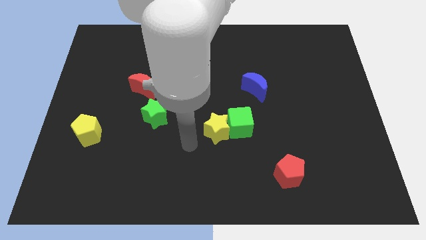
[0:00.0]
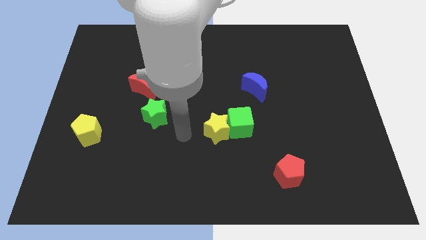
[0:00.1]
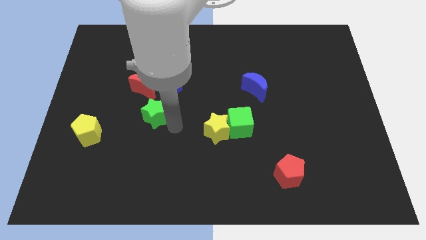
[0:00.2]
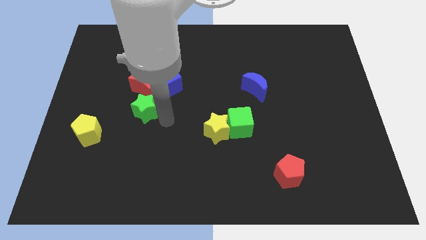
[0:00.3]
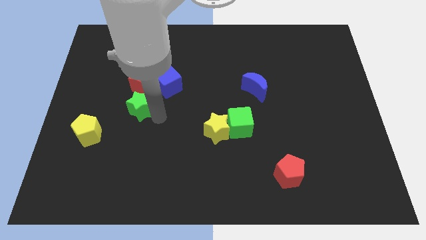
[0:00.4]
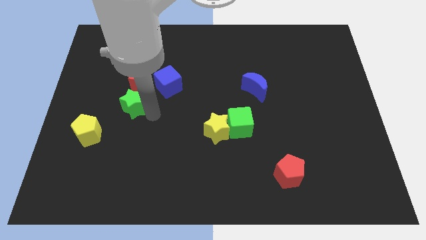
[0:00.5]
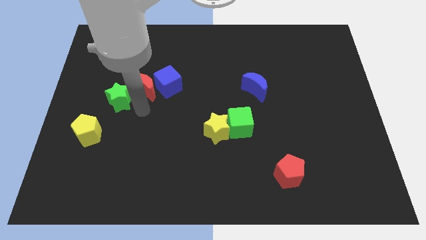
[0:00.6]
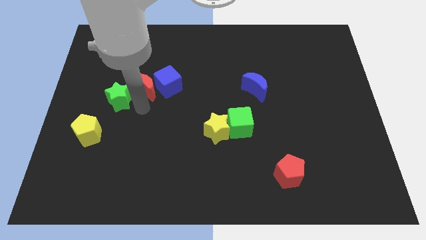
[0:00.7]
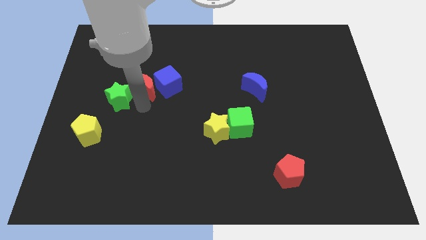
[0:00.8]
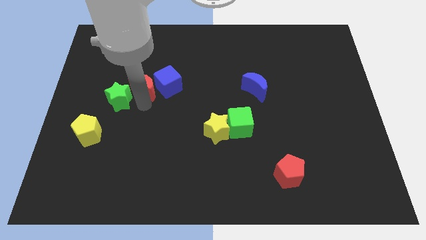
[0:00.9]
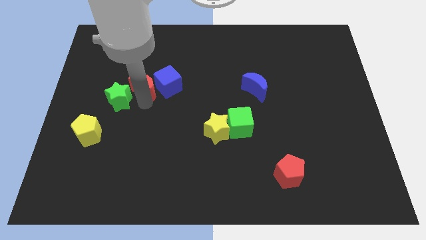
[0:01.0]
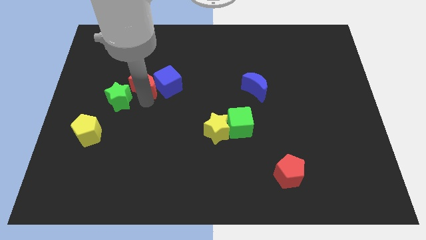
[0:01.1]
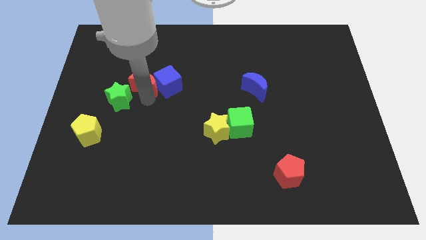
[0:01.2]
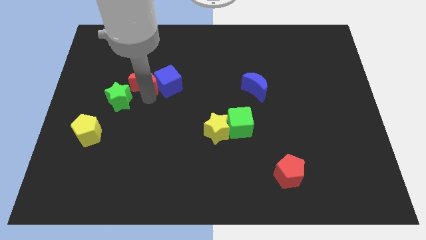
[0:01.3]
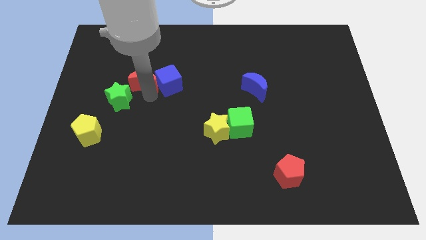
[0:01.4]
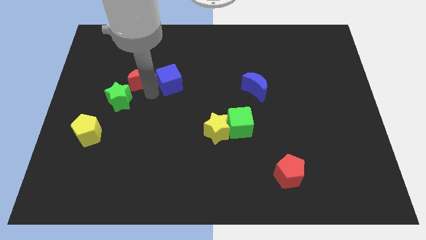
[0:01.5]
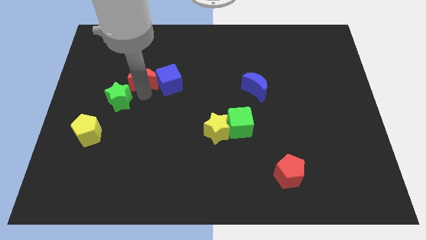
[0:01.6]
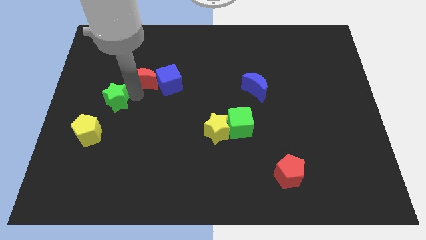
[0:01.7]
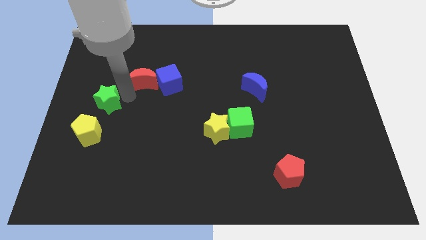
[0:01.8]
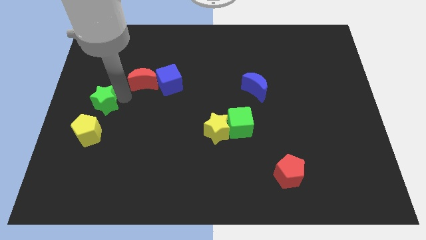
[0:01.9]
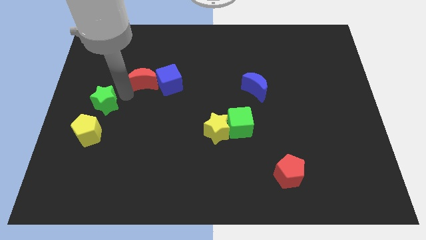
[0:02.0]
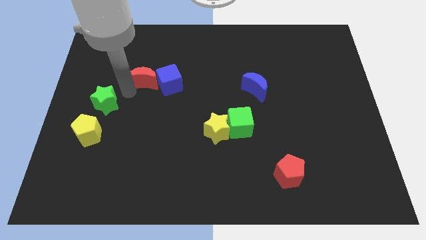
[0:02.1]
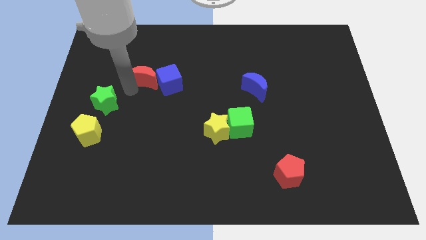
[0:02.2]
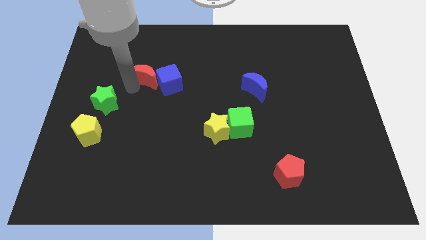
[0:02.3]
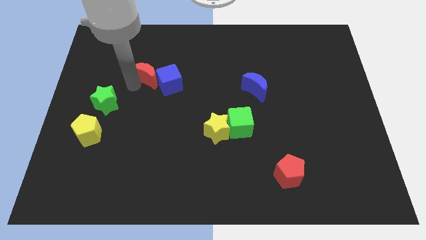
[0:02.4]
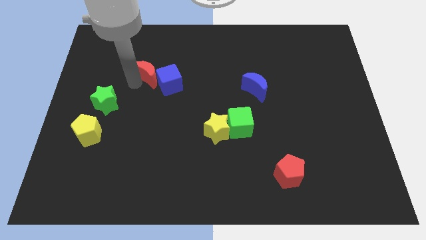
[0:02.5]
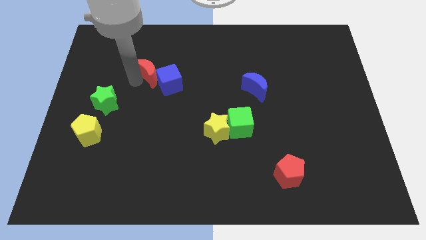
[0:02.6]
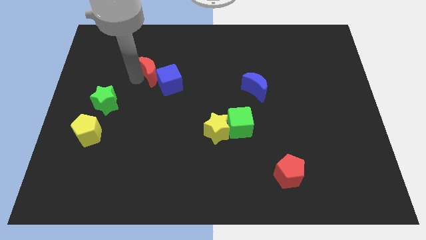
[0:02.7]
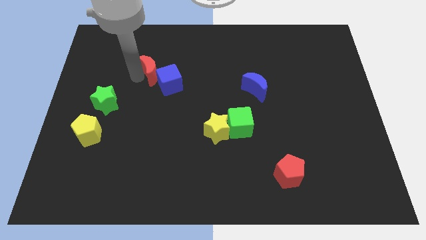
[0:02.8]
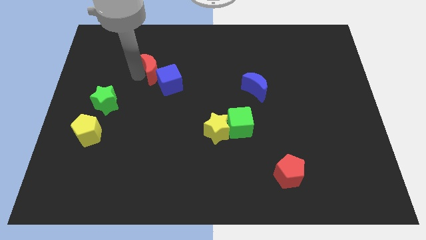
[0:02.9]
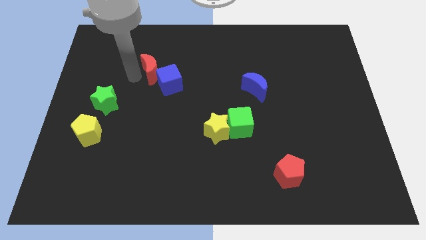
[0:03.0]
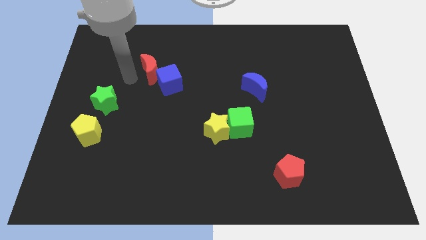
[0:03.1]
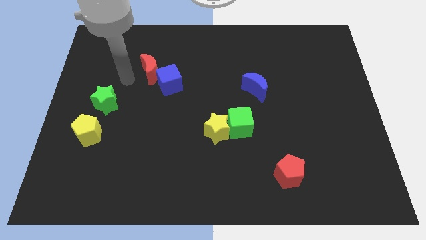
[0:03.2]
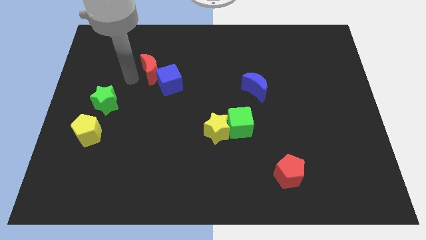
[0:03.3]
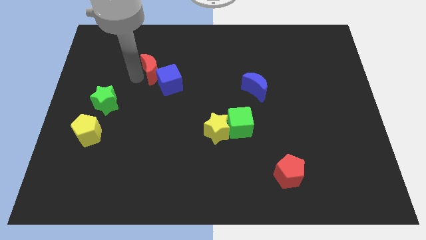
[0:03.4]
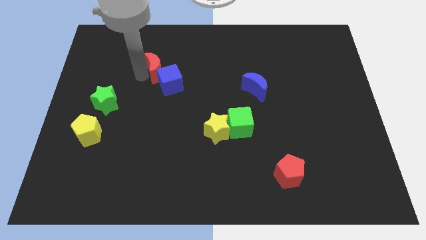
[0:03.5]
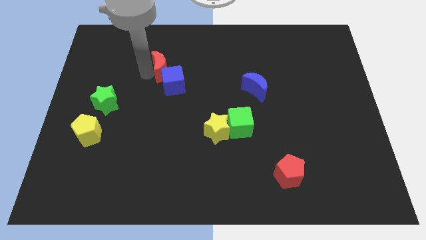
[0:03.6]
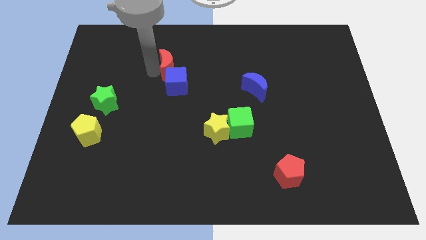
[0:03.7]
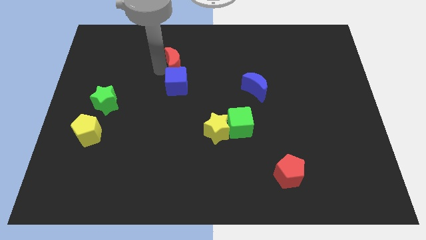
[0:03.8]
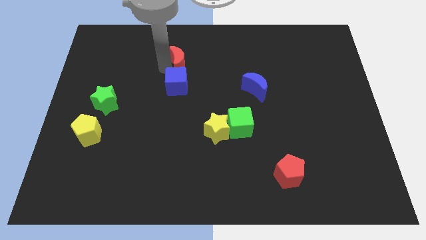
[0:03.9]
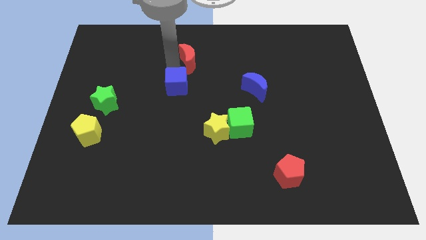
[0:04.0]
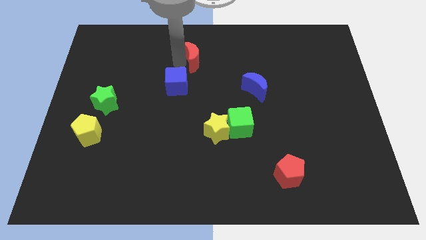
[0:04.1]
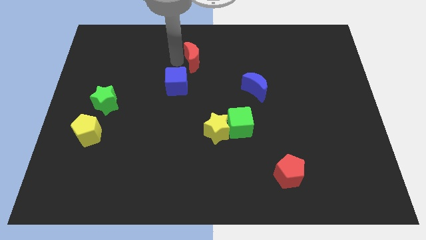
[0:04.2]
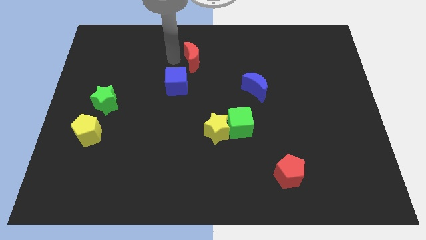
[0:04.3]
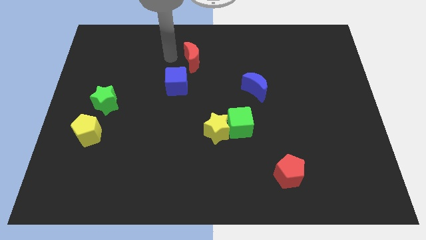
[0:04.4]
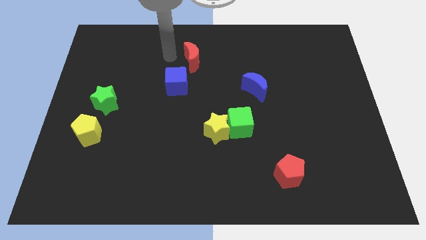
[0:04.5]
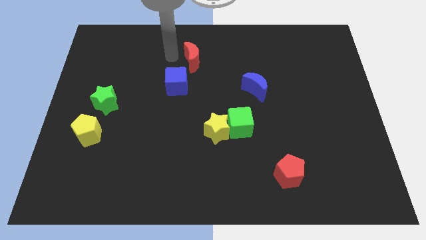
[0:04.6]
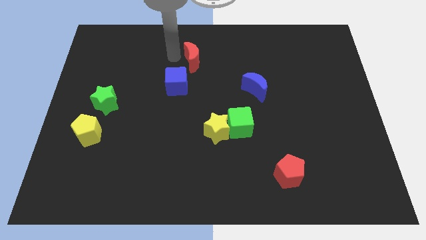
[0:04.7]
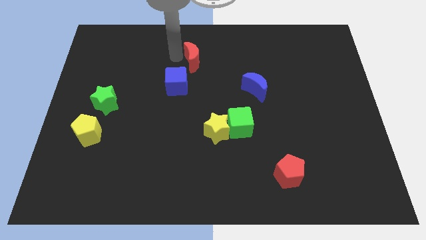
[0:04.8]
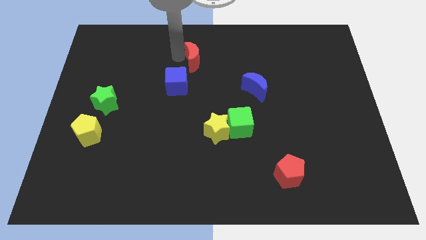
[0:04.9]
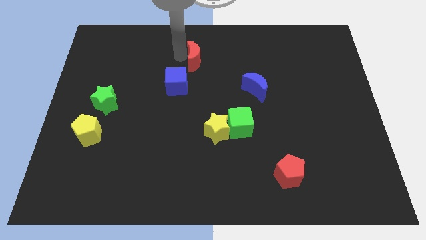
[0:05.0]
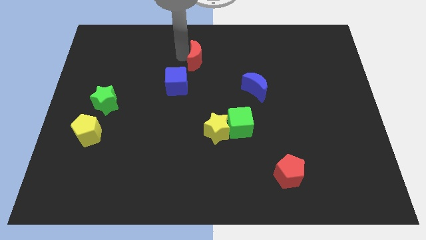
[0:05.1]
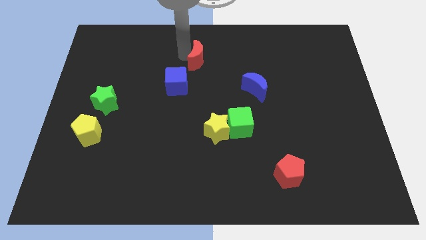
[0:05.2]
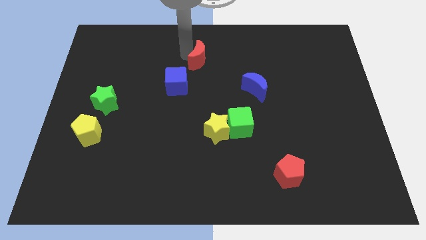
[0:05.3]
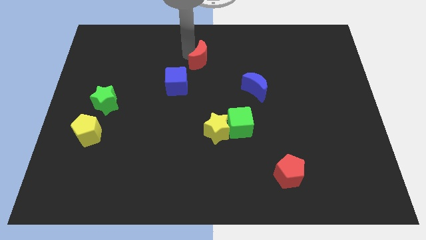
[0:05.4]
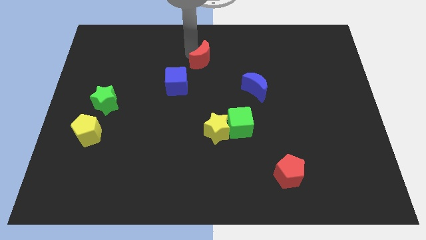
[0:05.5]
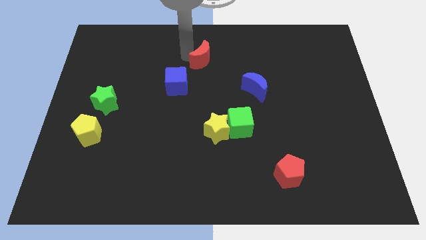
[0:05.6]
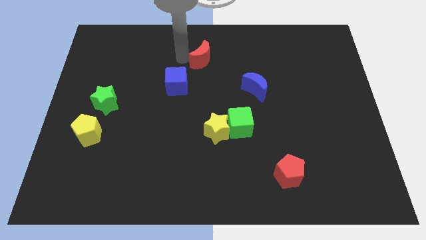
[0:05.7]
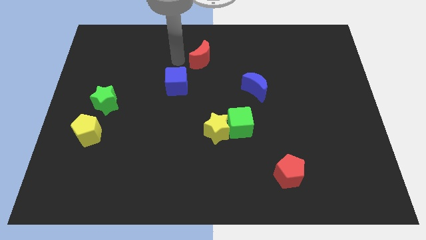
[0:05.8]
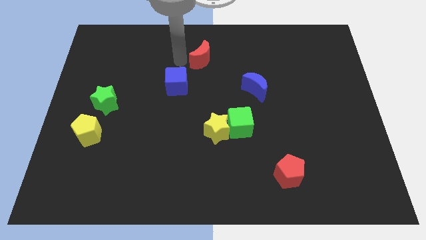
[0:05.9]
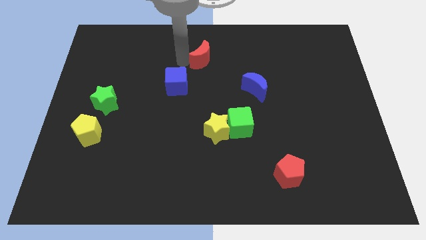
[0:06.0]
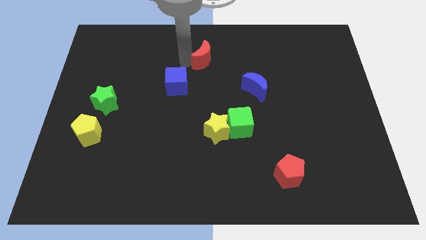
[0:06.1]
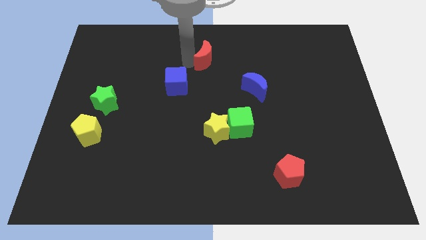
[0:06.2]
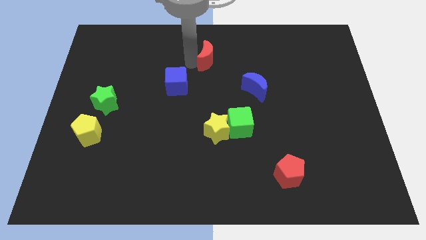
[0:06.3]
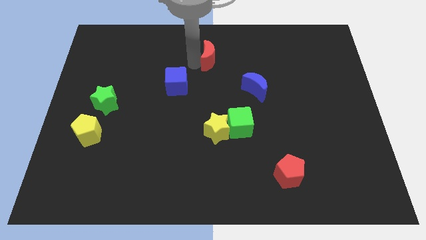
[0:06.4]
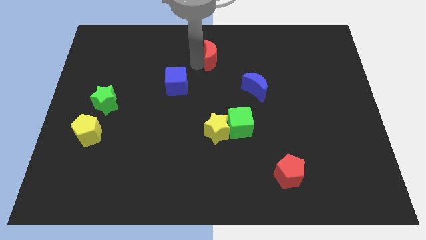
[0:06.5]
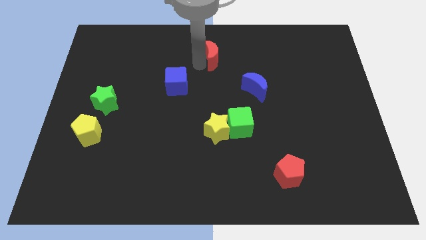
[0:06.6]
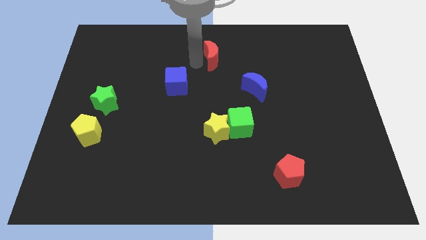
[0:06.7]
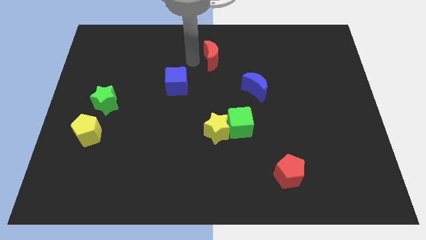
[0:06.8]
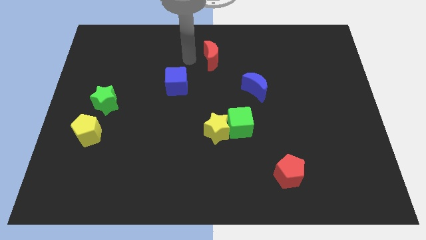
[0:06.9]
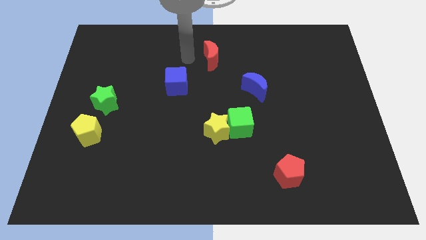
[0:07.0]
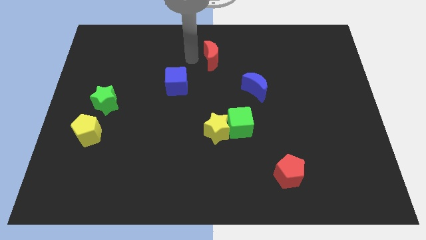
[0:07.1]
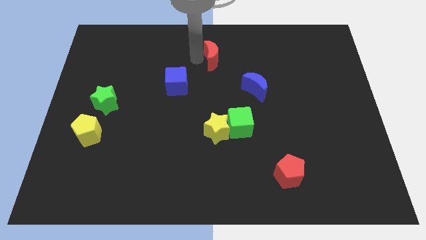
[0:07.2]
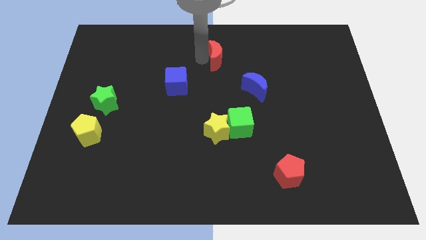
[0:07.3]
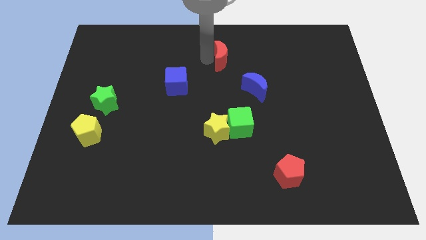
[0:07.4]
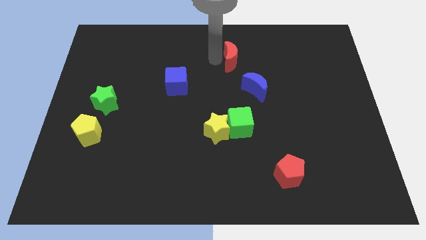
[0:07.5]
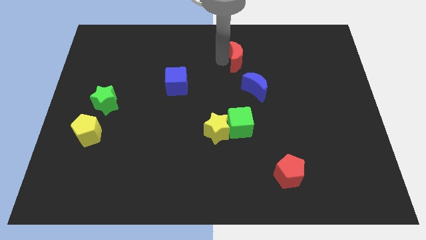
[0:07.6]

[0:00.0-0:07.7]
move the red moon above the blue moon
